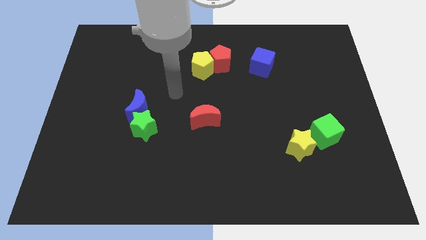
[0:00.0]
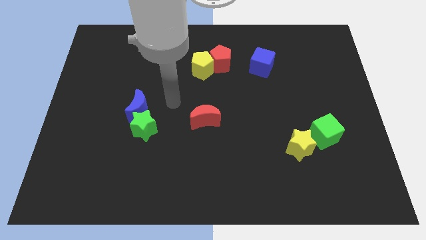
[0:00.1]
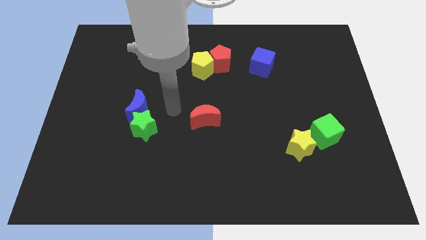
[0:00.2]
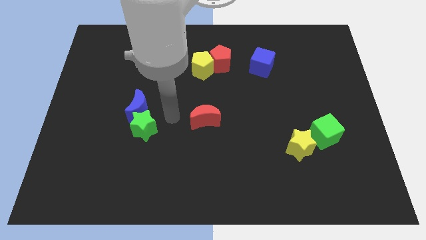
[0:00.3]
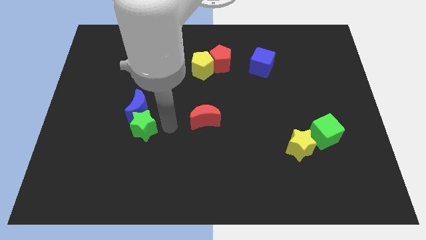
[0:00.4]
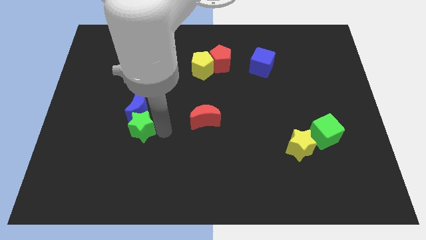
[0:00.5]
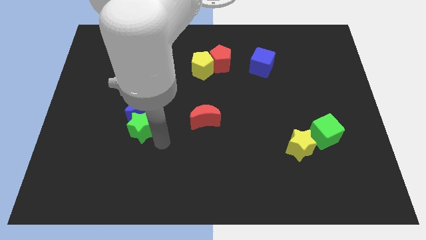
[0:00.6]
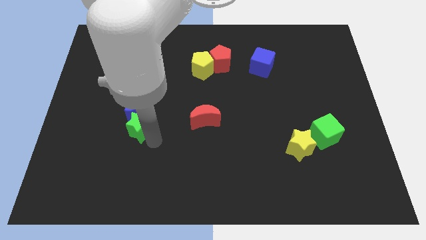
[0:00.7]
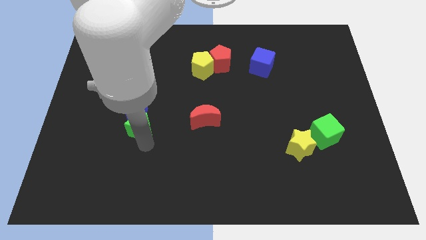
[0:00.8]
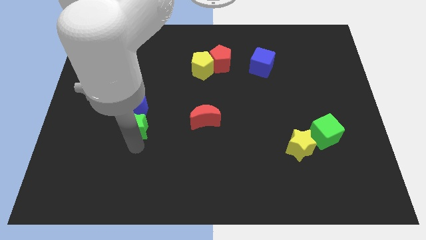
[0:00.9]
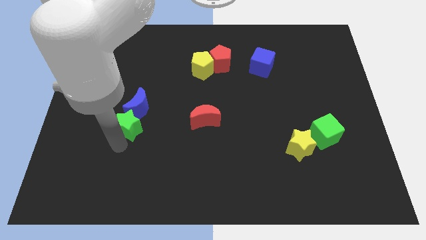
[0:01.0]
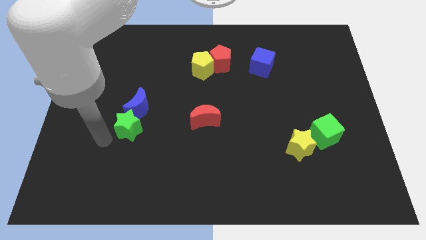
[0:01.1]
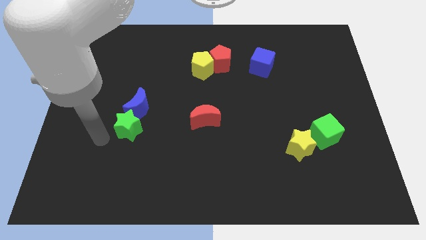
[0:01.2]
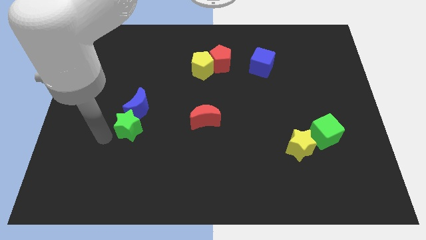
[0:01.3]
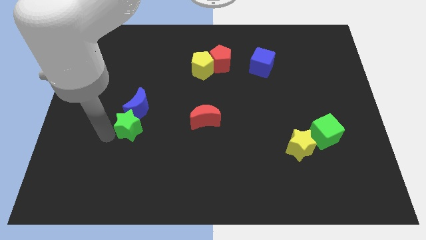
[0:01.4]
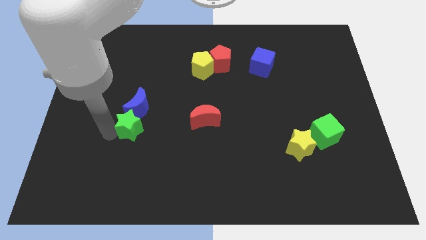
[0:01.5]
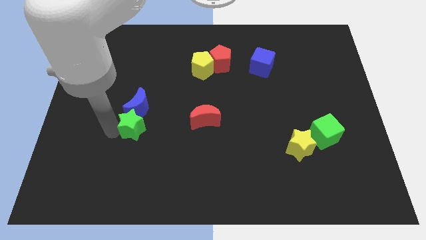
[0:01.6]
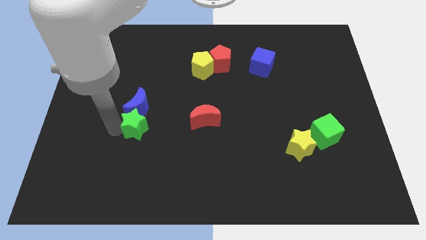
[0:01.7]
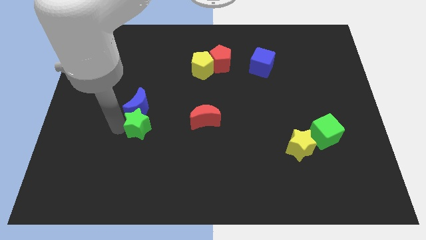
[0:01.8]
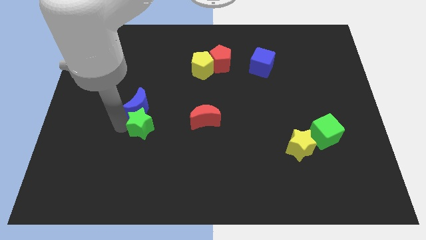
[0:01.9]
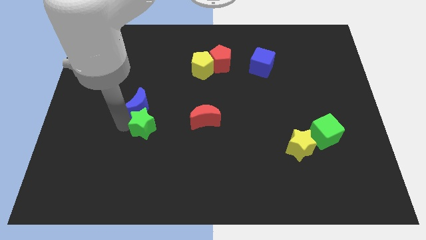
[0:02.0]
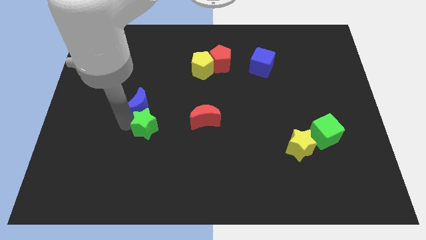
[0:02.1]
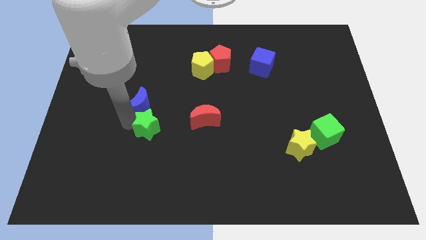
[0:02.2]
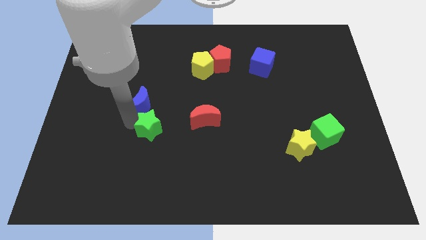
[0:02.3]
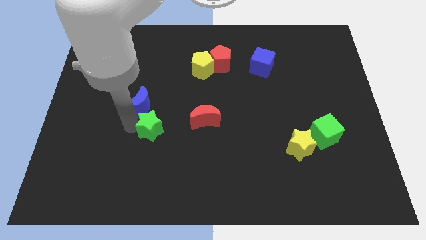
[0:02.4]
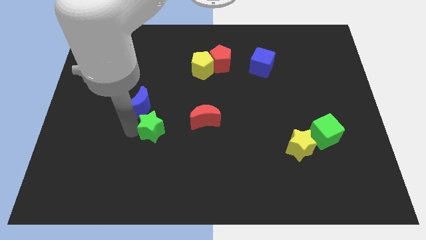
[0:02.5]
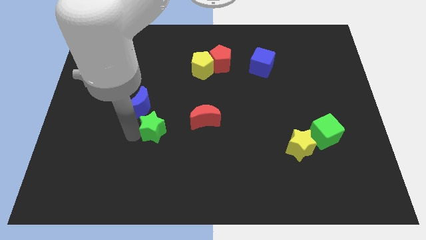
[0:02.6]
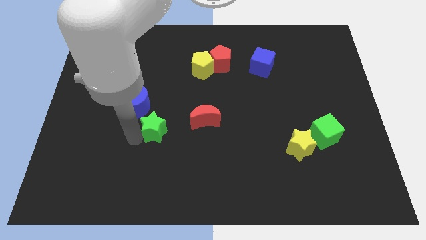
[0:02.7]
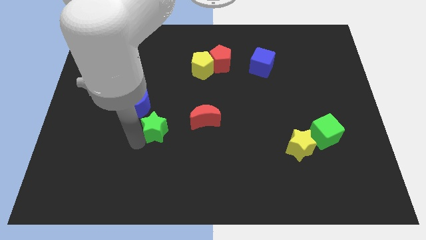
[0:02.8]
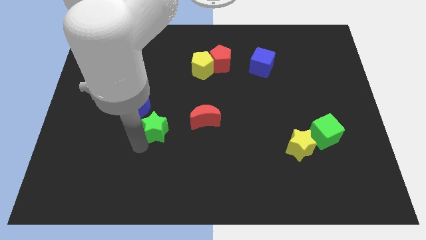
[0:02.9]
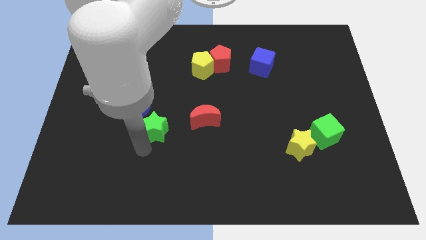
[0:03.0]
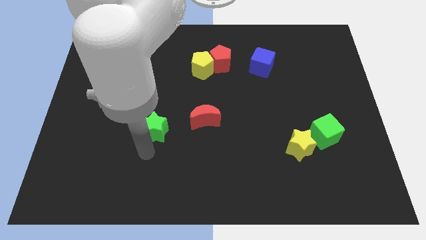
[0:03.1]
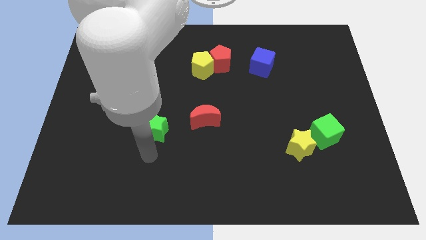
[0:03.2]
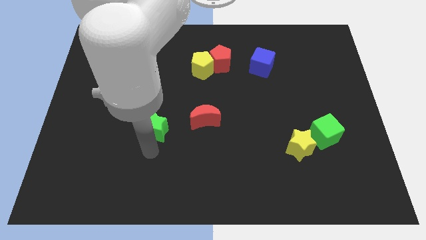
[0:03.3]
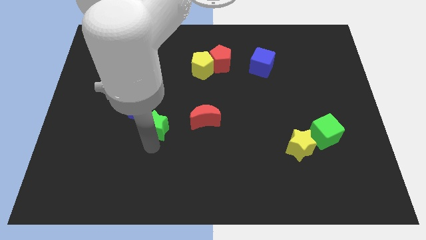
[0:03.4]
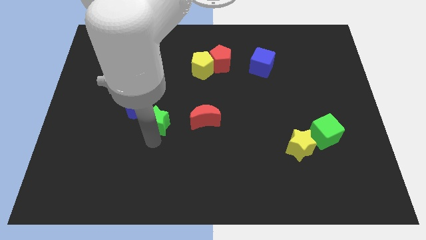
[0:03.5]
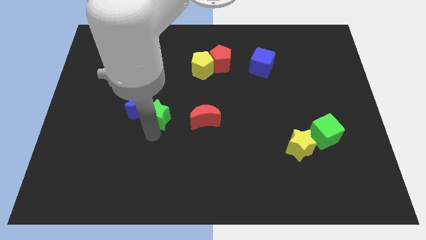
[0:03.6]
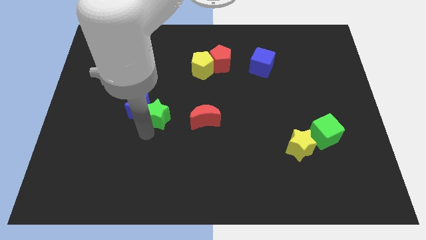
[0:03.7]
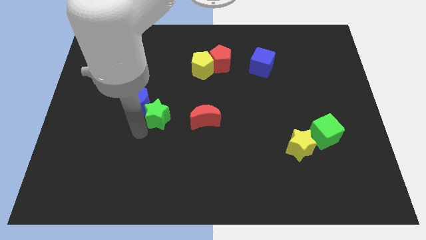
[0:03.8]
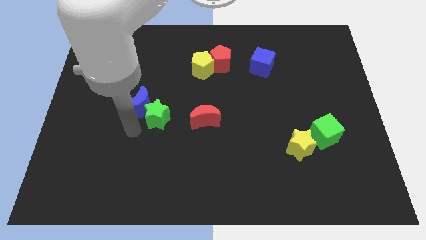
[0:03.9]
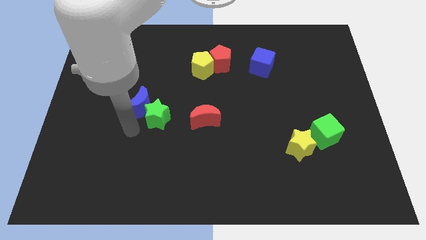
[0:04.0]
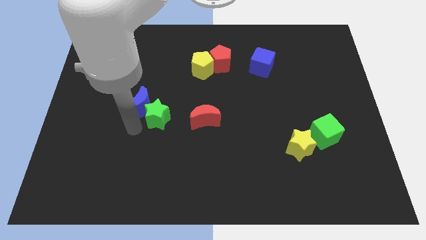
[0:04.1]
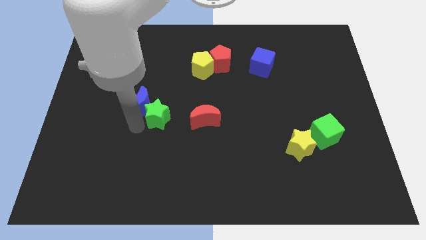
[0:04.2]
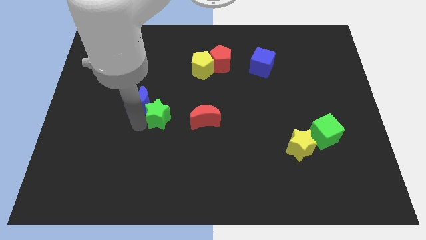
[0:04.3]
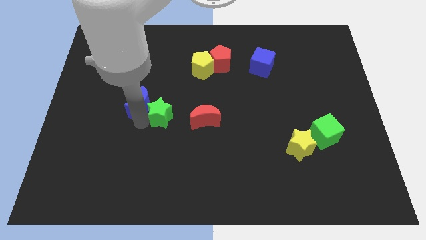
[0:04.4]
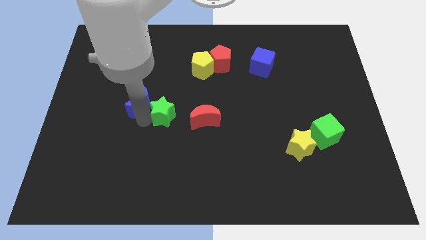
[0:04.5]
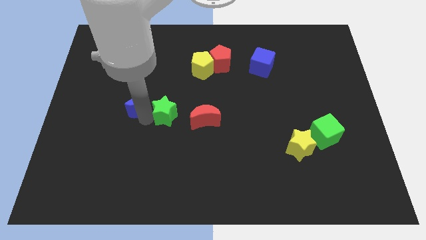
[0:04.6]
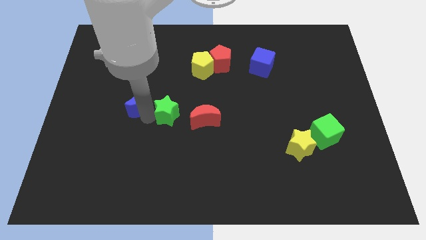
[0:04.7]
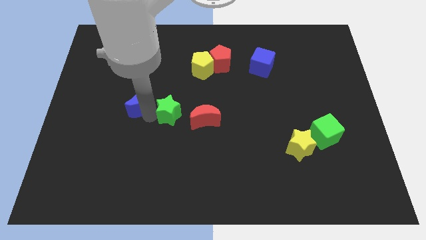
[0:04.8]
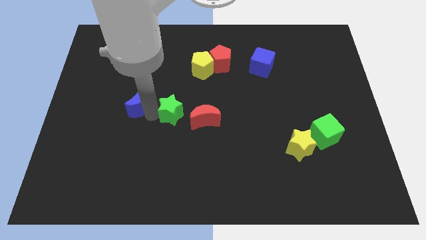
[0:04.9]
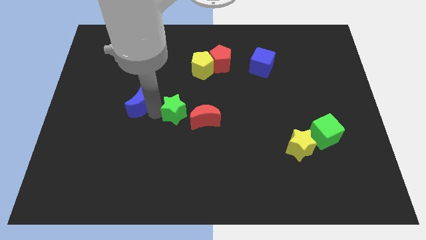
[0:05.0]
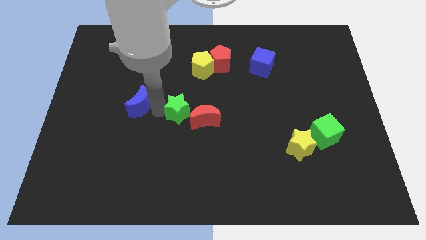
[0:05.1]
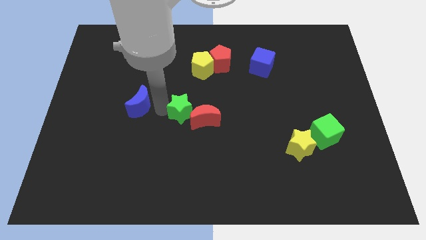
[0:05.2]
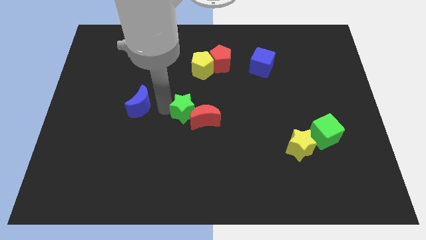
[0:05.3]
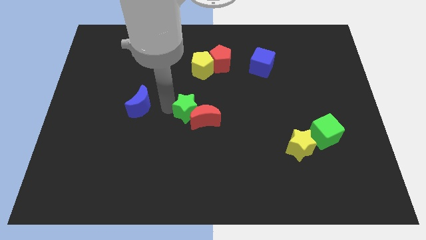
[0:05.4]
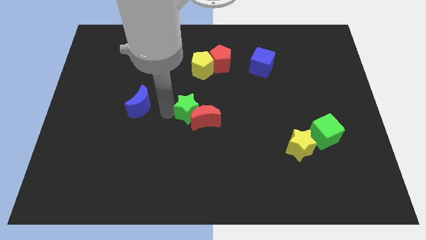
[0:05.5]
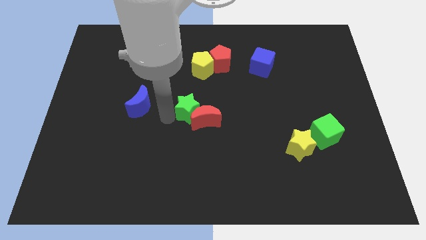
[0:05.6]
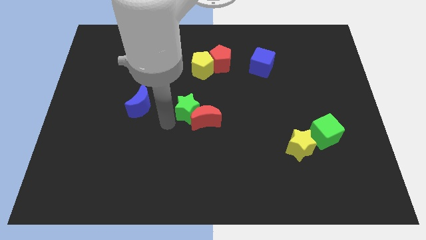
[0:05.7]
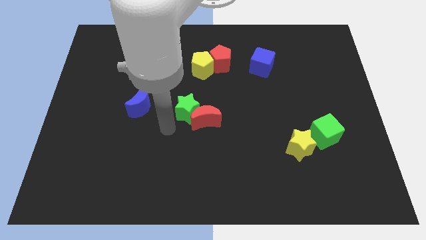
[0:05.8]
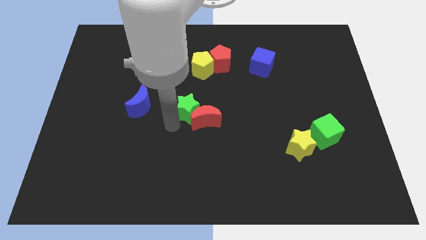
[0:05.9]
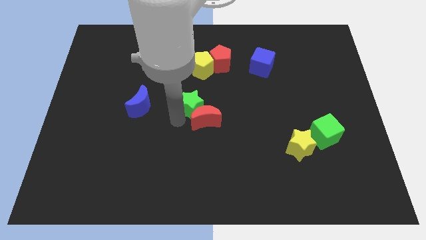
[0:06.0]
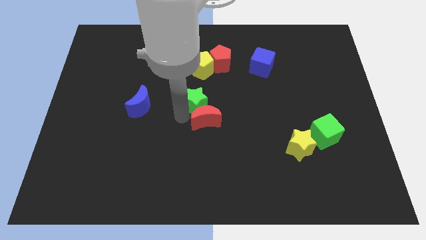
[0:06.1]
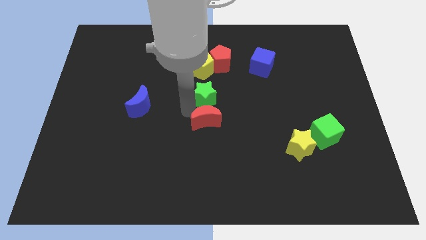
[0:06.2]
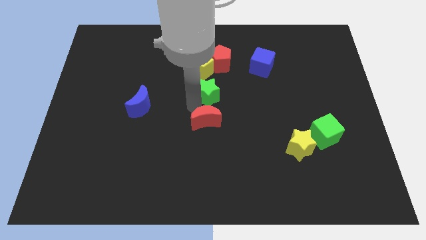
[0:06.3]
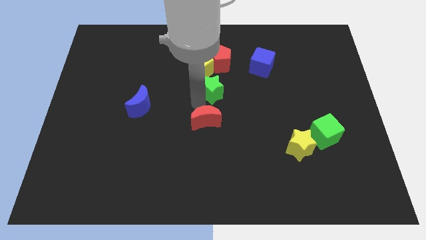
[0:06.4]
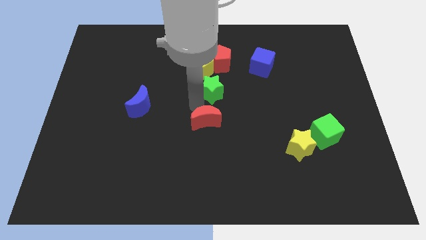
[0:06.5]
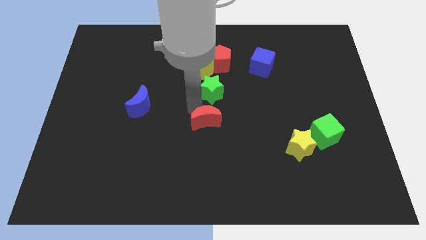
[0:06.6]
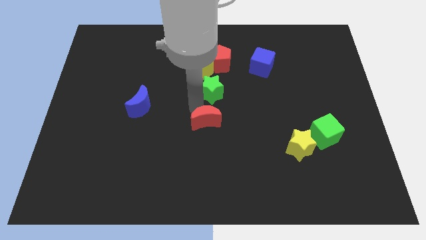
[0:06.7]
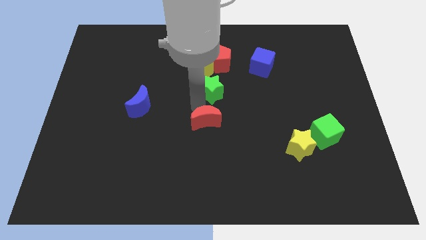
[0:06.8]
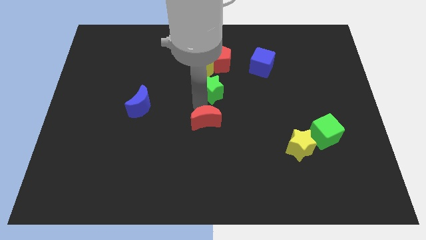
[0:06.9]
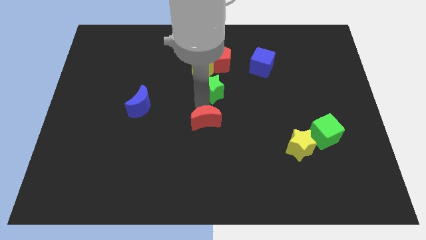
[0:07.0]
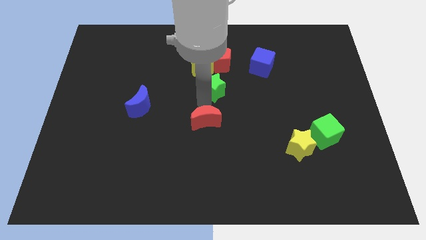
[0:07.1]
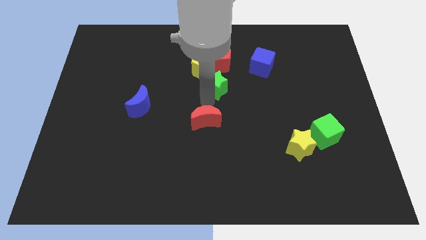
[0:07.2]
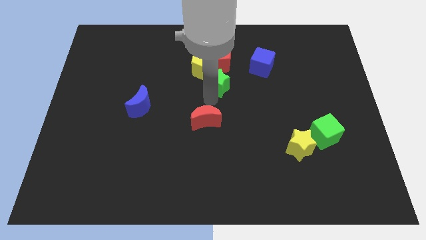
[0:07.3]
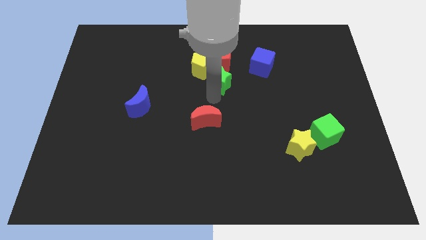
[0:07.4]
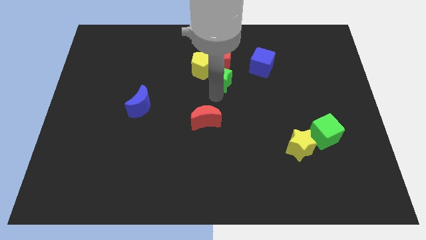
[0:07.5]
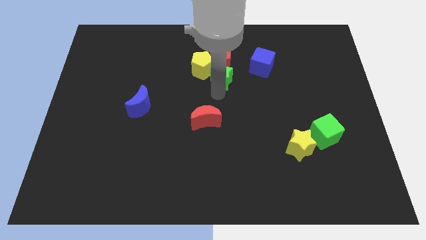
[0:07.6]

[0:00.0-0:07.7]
put the green star next to the red pentagon
